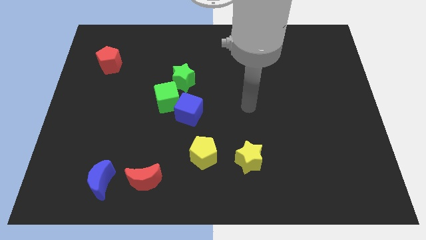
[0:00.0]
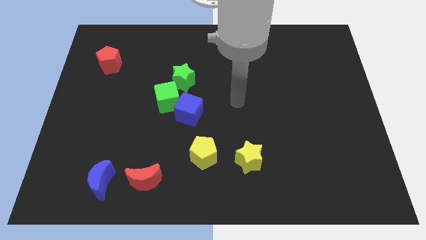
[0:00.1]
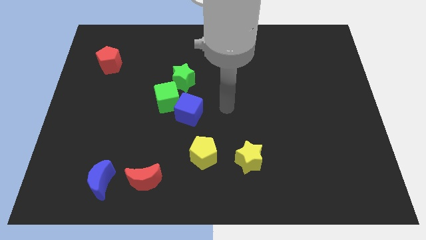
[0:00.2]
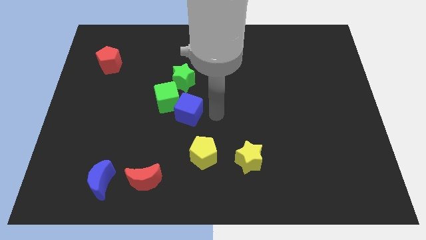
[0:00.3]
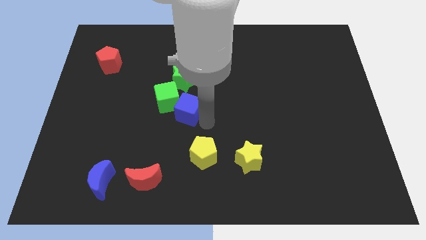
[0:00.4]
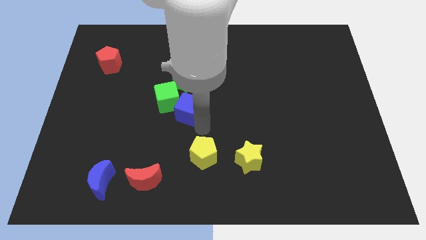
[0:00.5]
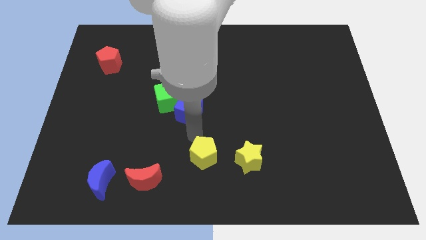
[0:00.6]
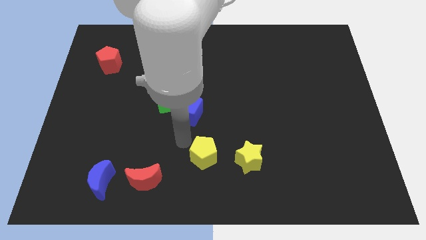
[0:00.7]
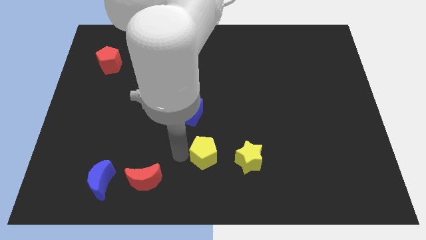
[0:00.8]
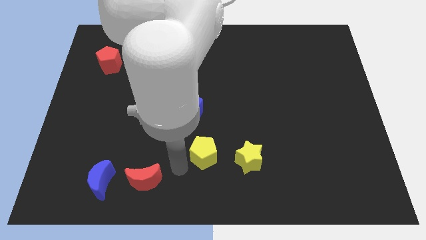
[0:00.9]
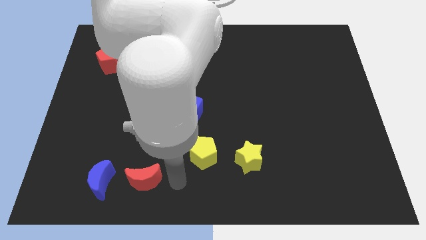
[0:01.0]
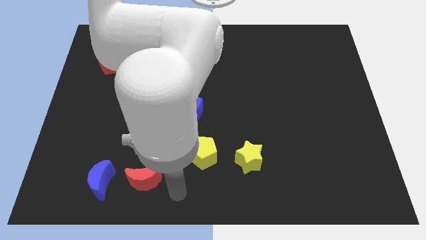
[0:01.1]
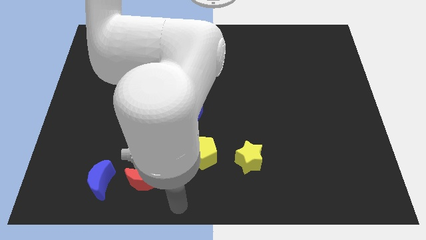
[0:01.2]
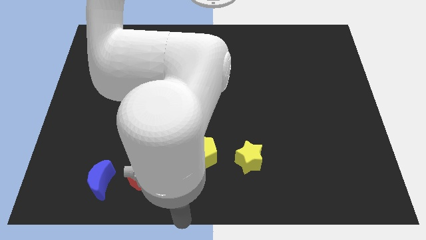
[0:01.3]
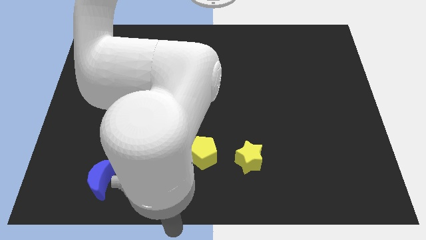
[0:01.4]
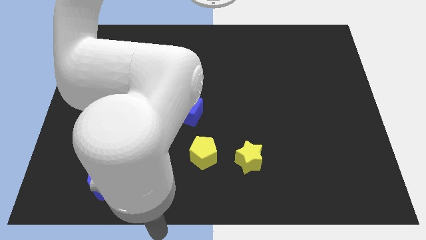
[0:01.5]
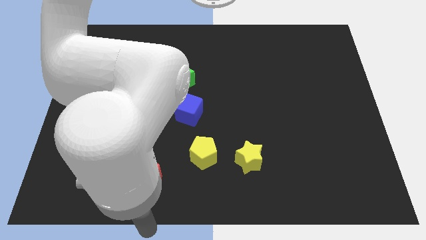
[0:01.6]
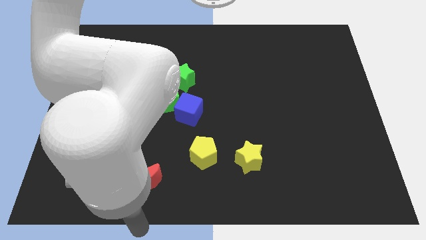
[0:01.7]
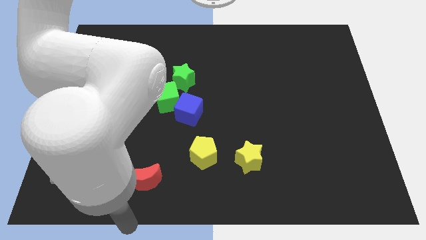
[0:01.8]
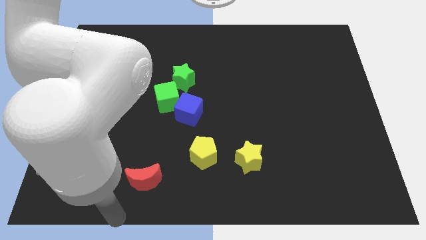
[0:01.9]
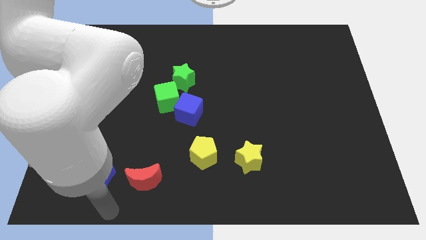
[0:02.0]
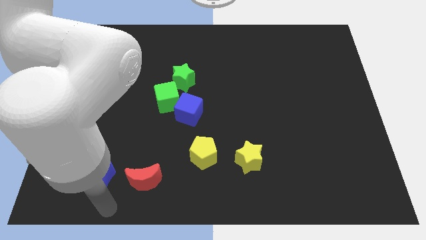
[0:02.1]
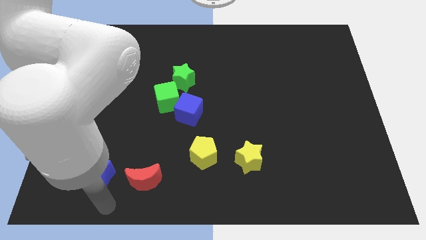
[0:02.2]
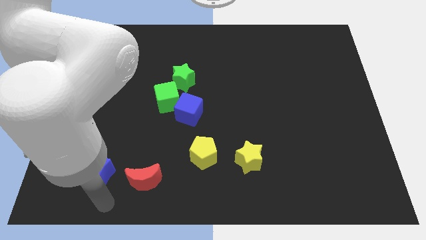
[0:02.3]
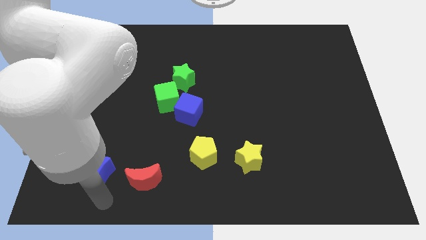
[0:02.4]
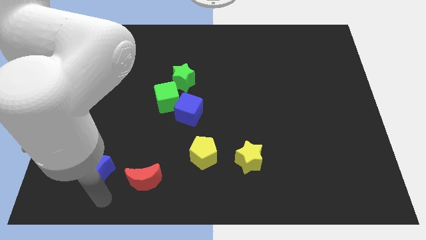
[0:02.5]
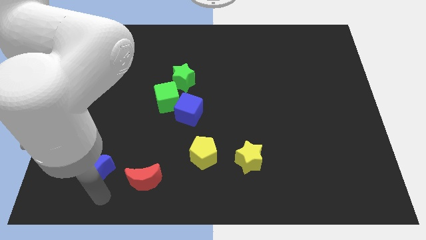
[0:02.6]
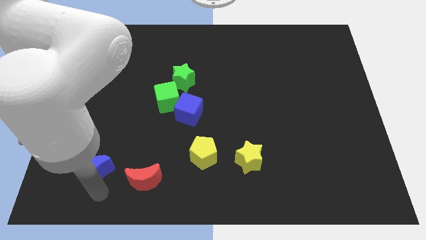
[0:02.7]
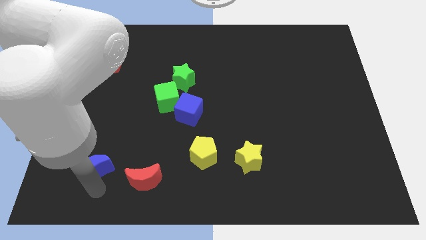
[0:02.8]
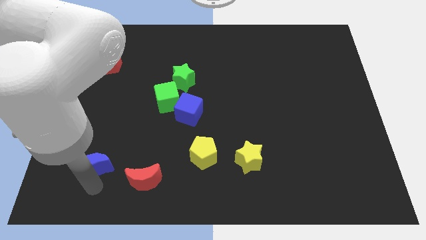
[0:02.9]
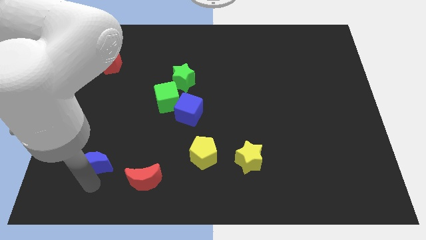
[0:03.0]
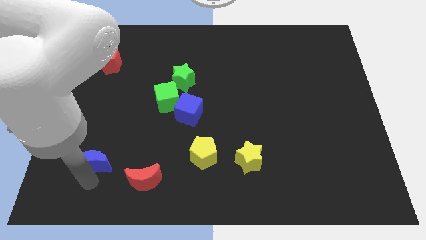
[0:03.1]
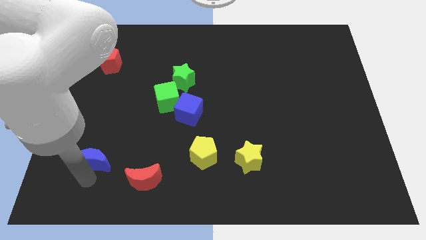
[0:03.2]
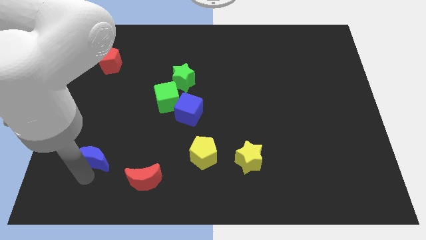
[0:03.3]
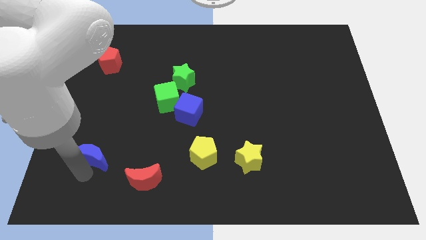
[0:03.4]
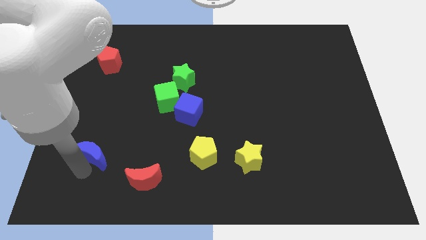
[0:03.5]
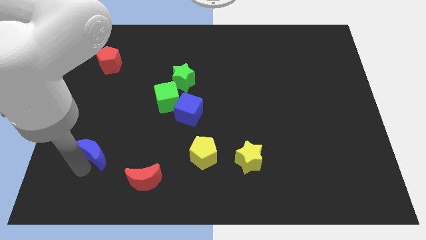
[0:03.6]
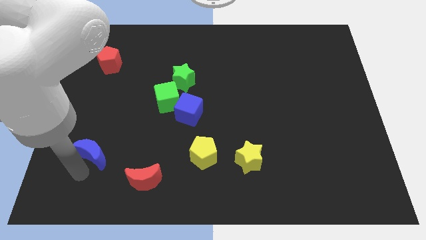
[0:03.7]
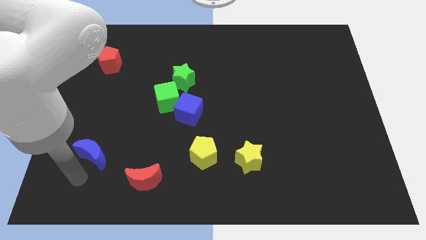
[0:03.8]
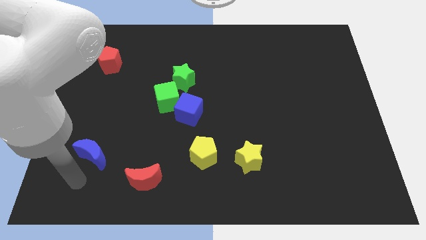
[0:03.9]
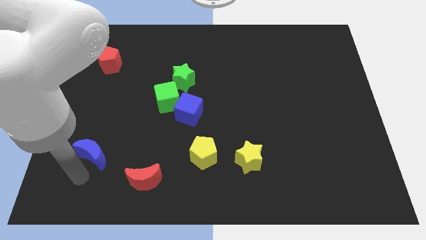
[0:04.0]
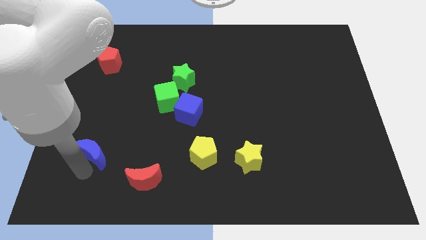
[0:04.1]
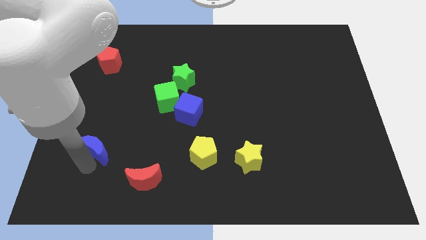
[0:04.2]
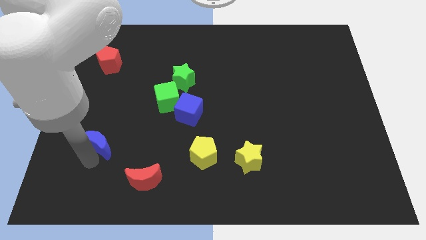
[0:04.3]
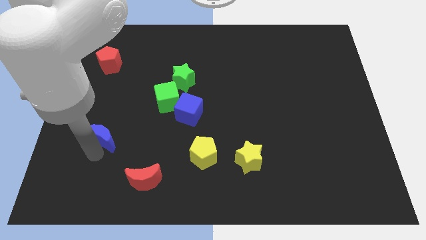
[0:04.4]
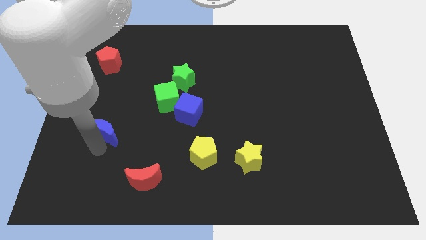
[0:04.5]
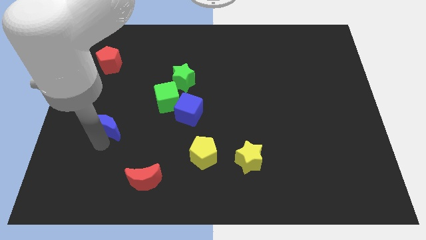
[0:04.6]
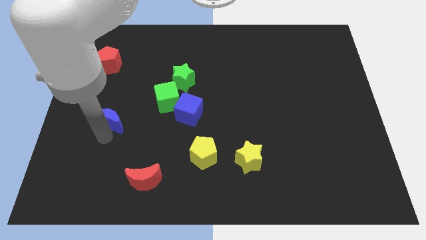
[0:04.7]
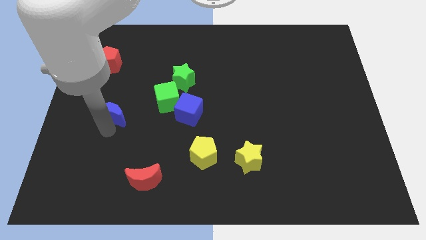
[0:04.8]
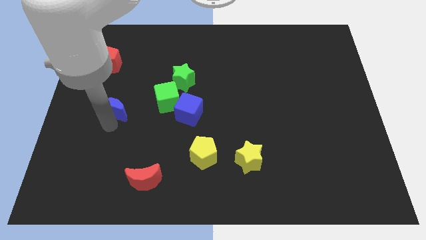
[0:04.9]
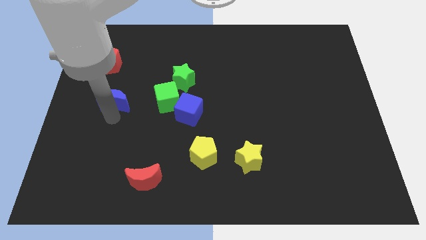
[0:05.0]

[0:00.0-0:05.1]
slide the blue moon up

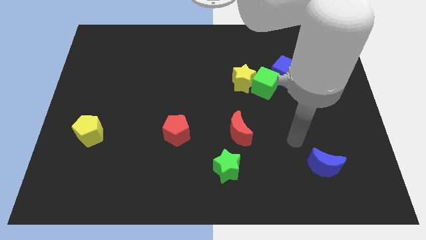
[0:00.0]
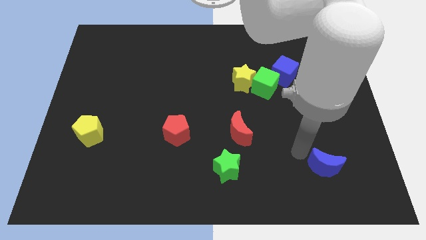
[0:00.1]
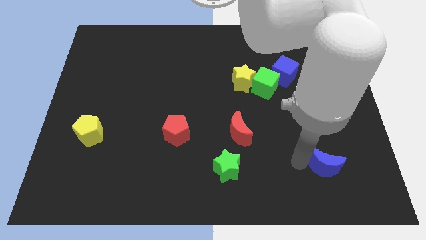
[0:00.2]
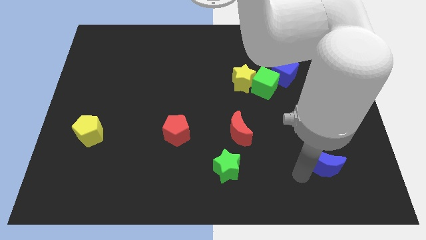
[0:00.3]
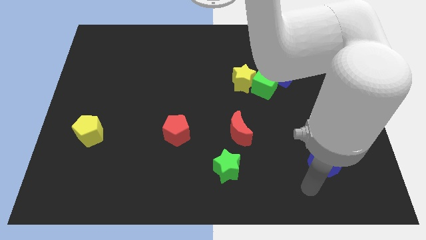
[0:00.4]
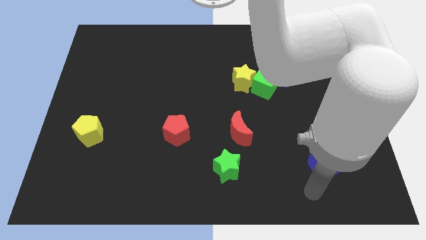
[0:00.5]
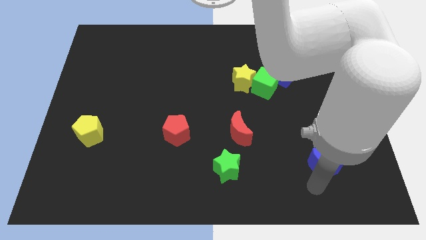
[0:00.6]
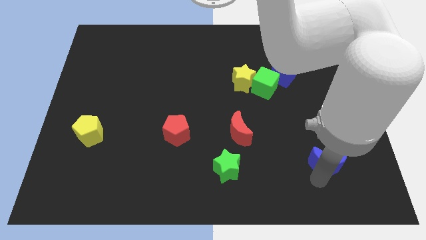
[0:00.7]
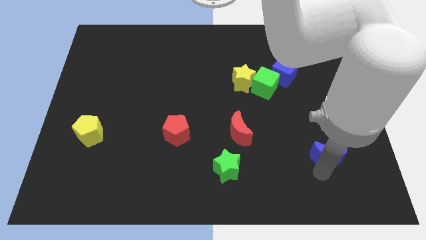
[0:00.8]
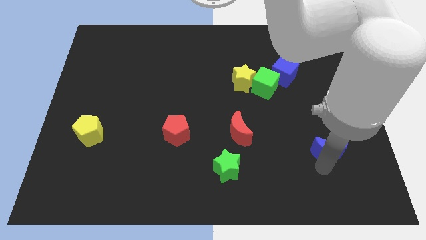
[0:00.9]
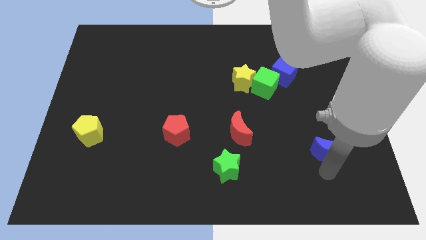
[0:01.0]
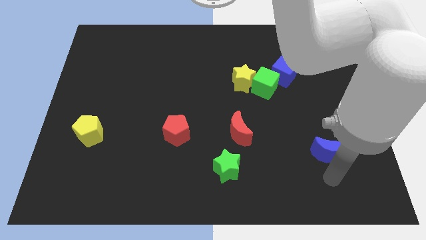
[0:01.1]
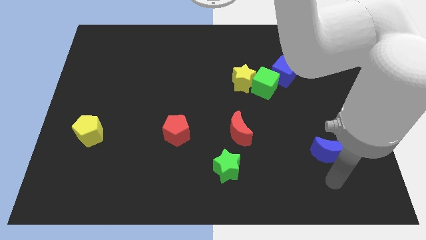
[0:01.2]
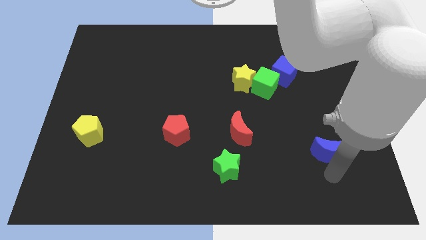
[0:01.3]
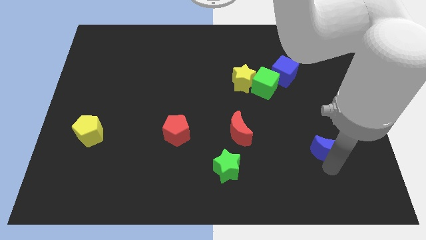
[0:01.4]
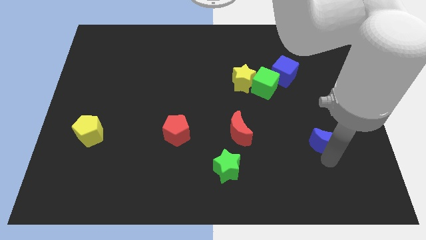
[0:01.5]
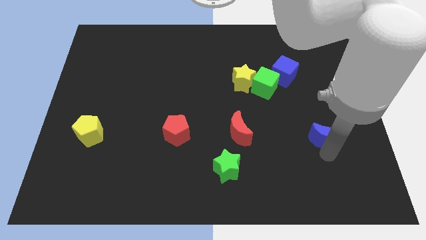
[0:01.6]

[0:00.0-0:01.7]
slightly push the blue moon up

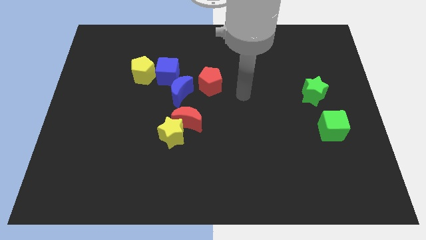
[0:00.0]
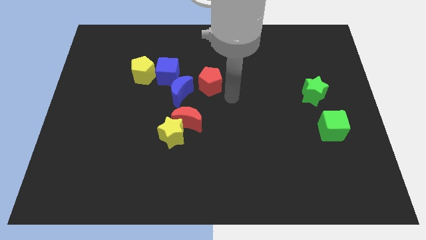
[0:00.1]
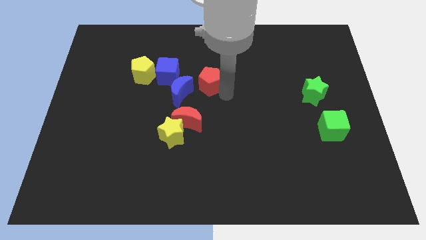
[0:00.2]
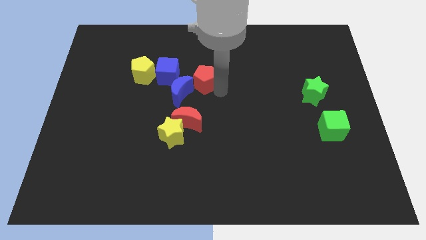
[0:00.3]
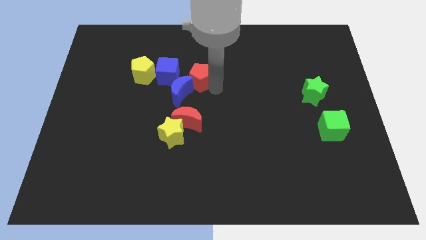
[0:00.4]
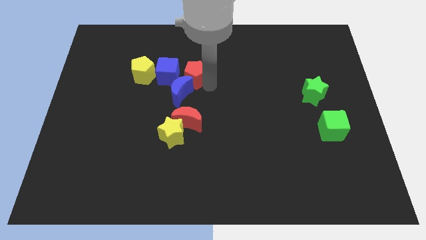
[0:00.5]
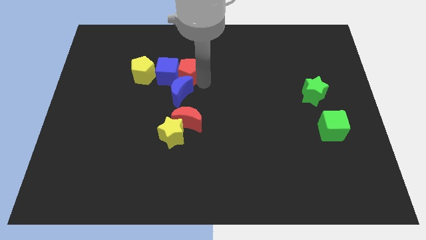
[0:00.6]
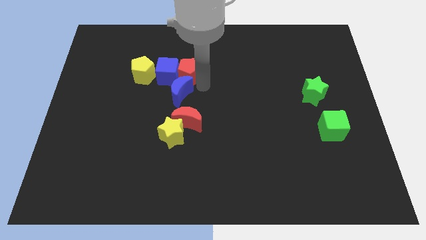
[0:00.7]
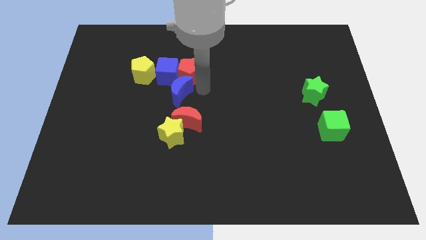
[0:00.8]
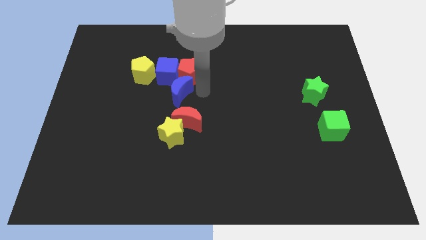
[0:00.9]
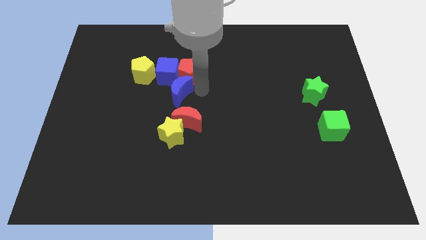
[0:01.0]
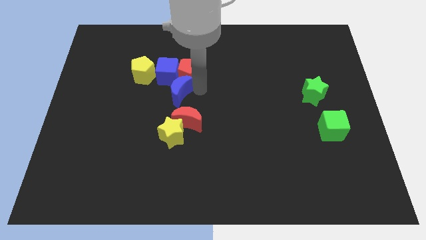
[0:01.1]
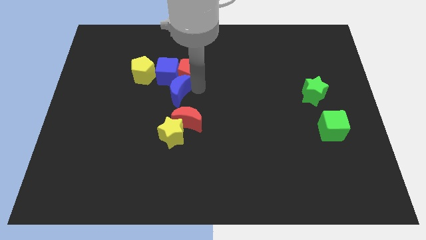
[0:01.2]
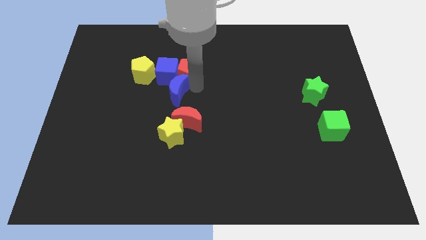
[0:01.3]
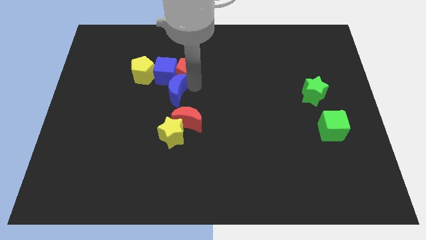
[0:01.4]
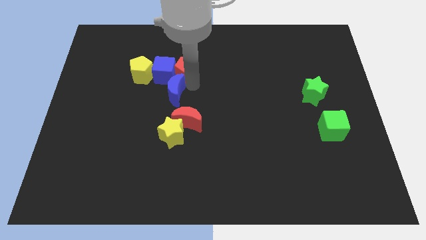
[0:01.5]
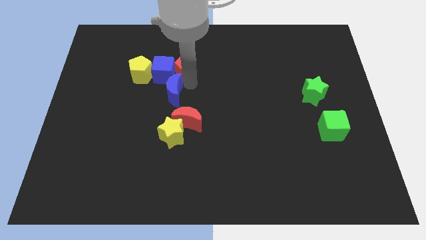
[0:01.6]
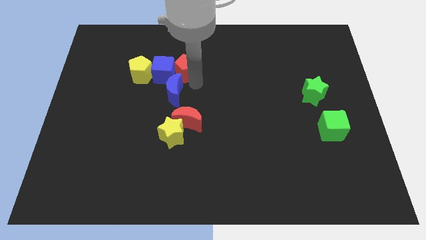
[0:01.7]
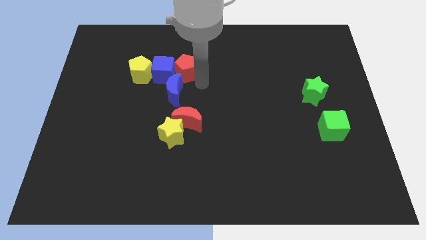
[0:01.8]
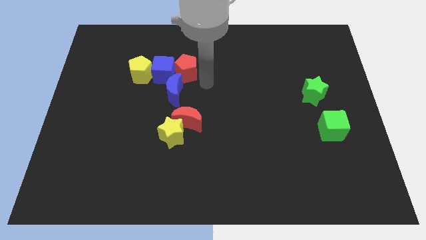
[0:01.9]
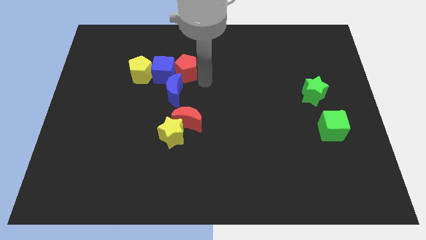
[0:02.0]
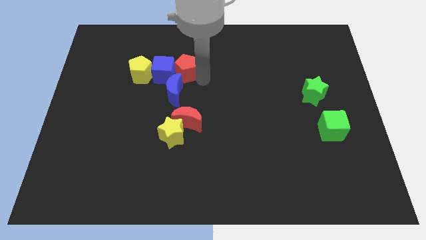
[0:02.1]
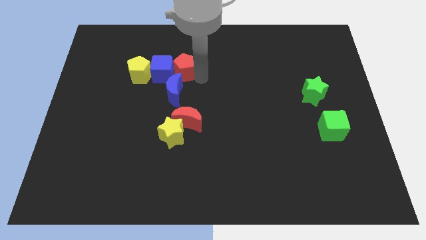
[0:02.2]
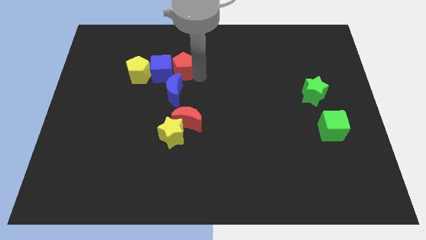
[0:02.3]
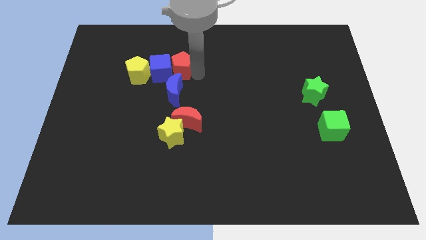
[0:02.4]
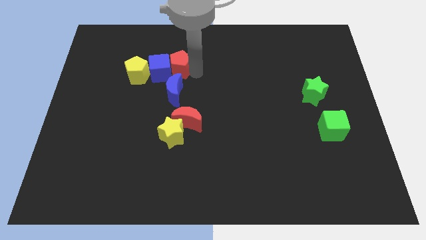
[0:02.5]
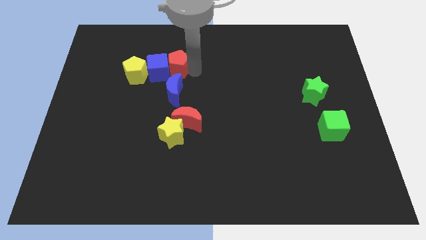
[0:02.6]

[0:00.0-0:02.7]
slide the red pentagon to the left slightly
